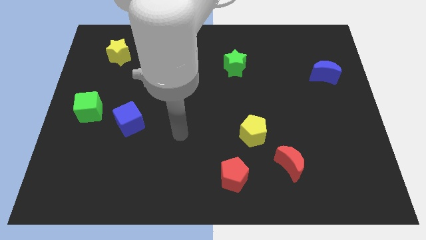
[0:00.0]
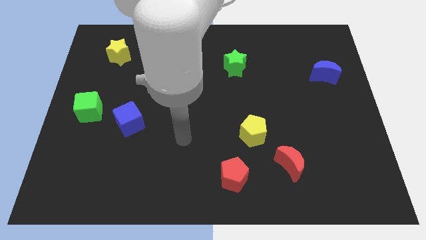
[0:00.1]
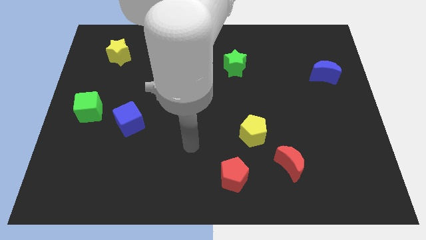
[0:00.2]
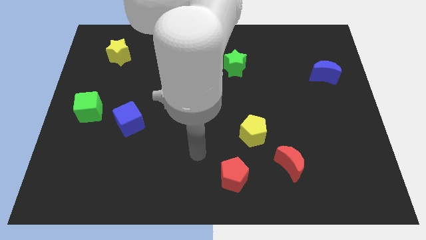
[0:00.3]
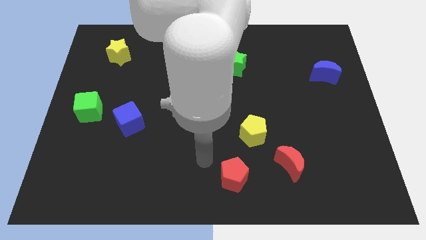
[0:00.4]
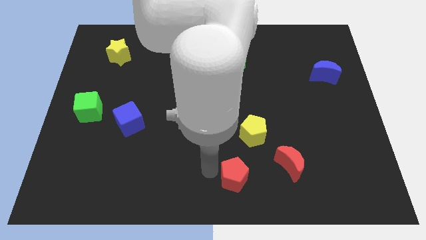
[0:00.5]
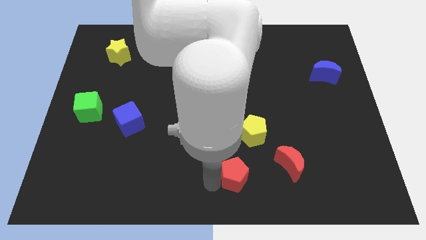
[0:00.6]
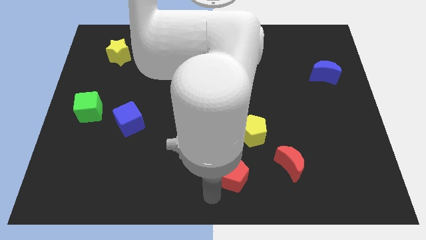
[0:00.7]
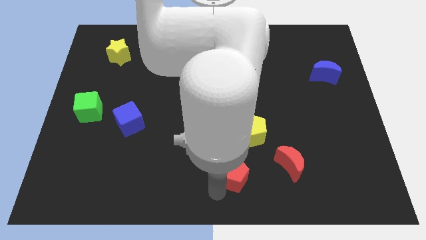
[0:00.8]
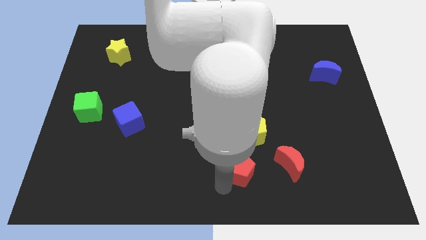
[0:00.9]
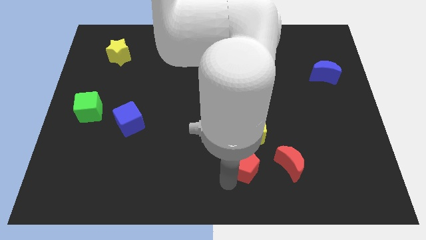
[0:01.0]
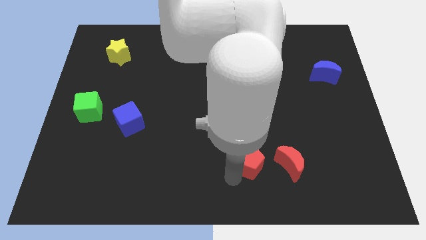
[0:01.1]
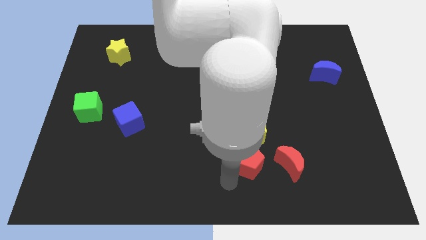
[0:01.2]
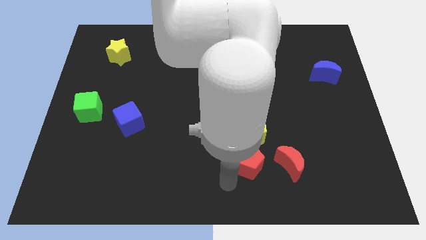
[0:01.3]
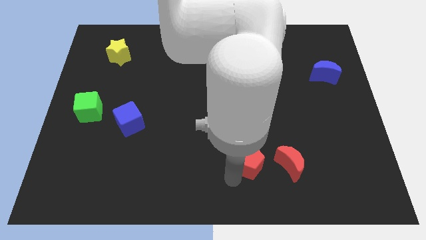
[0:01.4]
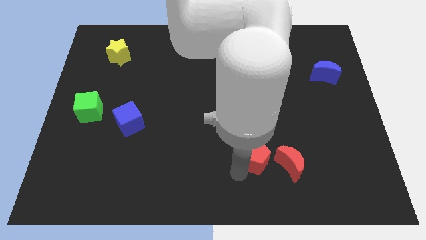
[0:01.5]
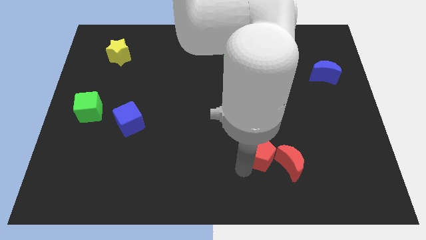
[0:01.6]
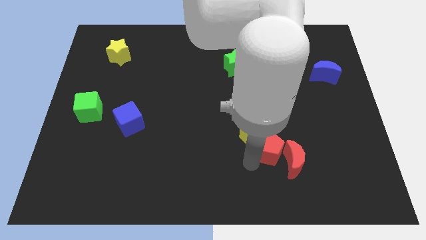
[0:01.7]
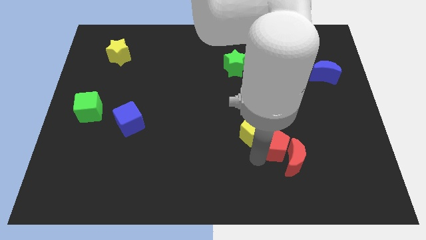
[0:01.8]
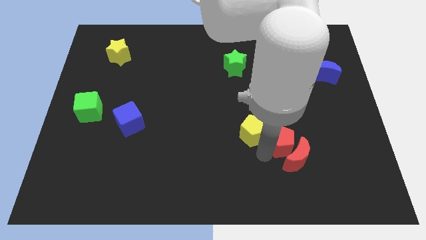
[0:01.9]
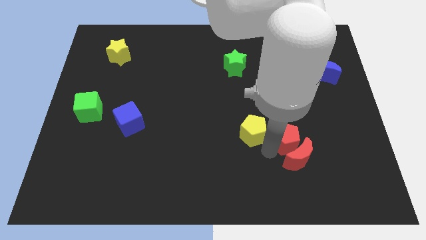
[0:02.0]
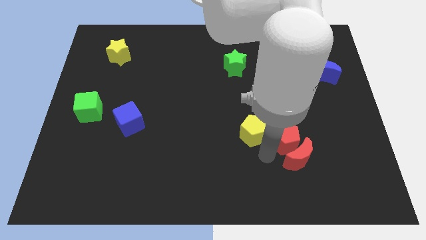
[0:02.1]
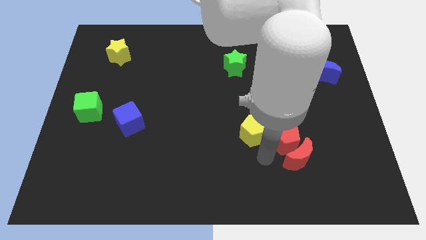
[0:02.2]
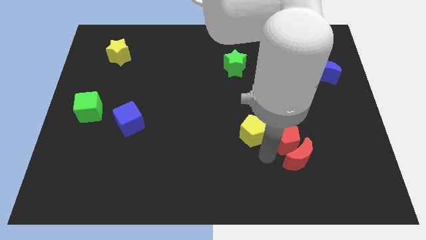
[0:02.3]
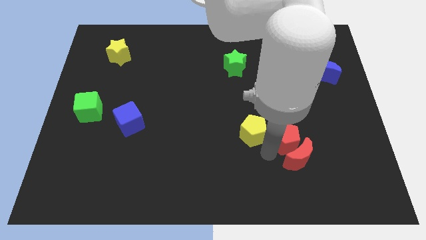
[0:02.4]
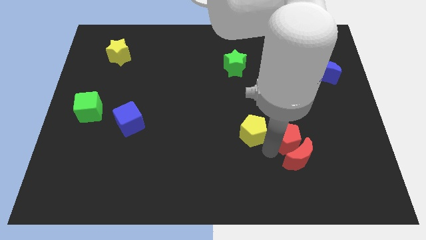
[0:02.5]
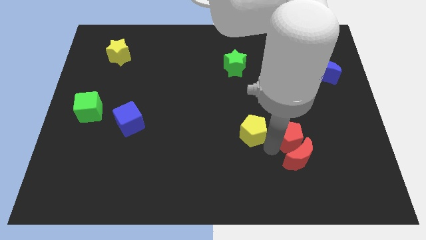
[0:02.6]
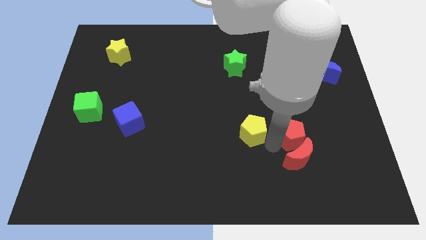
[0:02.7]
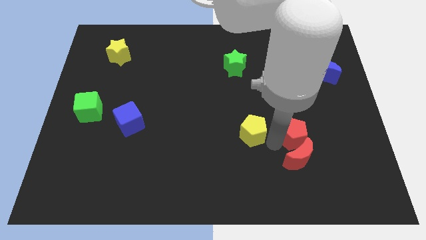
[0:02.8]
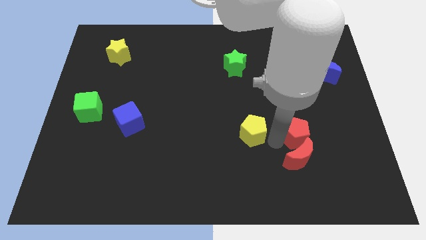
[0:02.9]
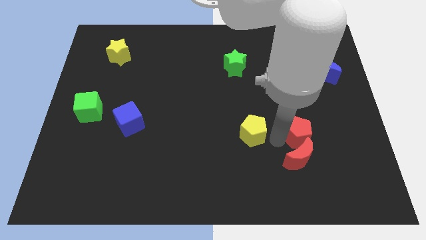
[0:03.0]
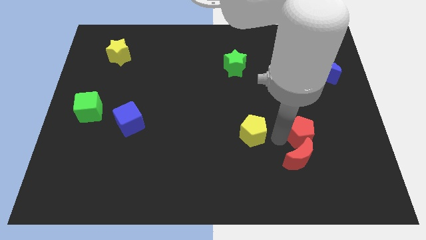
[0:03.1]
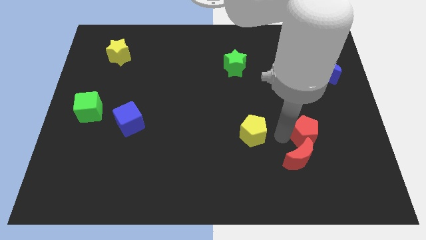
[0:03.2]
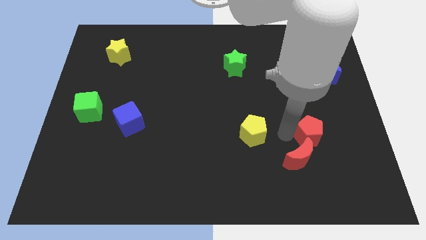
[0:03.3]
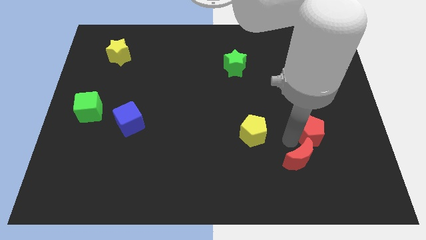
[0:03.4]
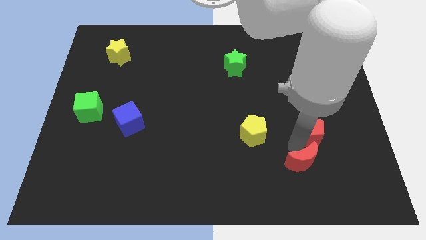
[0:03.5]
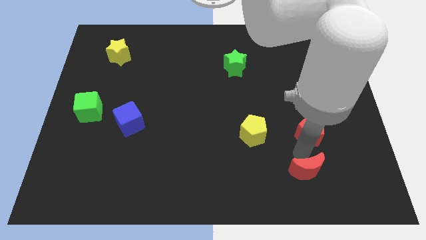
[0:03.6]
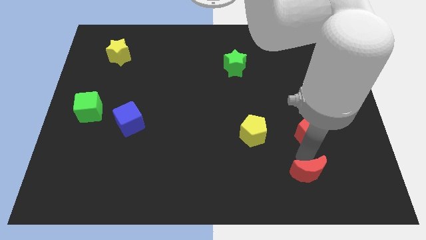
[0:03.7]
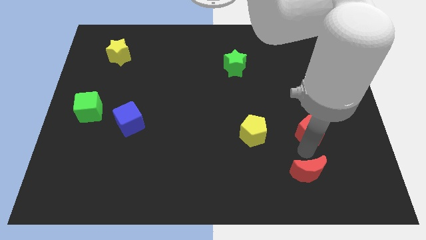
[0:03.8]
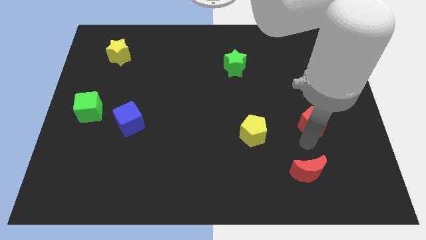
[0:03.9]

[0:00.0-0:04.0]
slide the red pentagon up and right diagonally

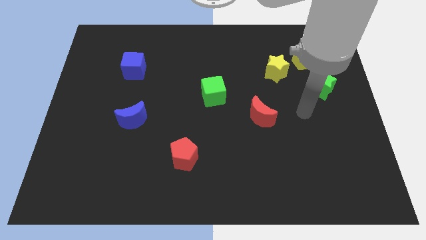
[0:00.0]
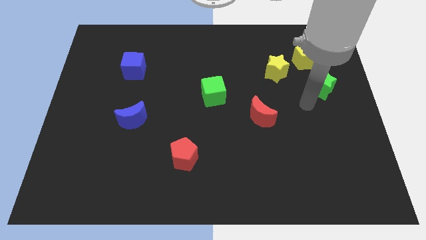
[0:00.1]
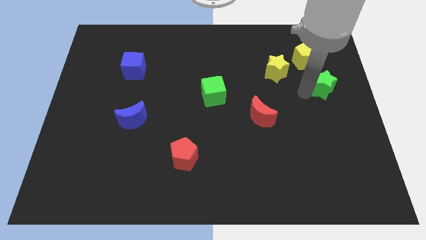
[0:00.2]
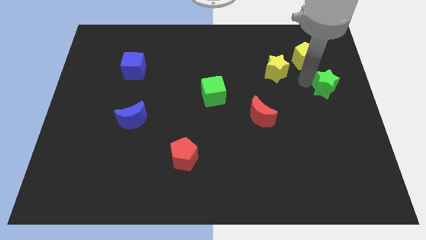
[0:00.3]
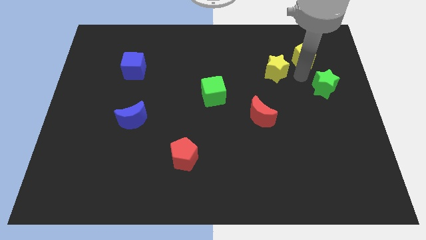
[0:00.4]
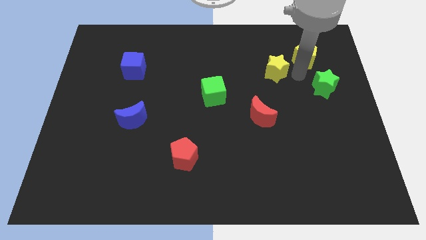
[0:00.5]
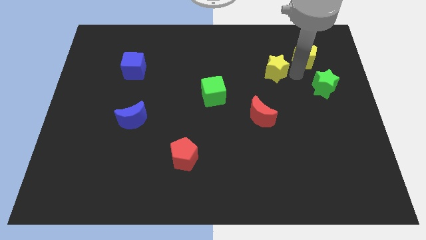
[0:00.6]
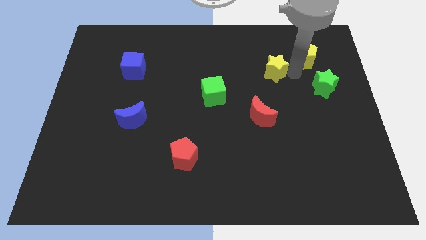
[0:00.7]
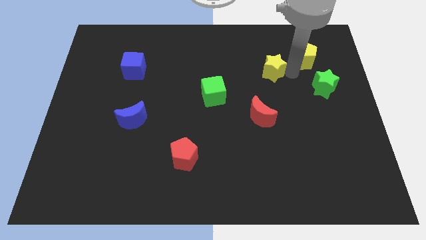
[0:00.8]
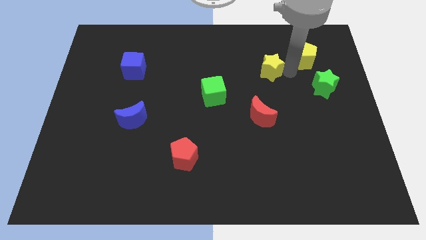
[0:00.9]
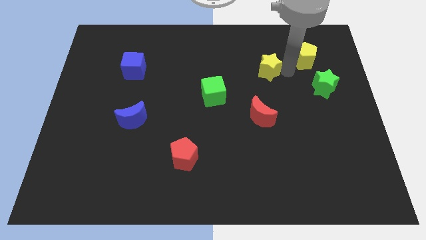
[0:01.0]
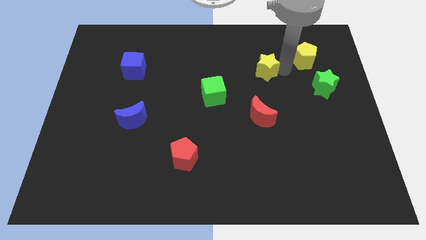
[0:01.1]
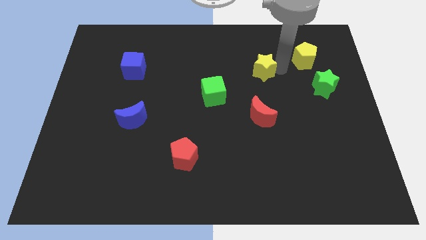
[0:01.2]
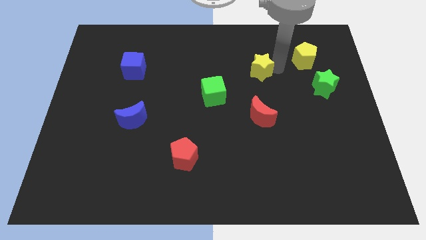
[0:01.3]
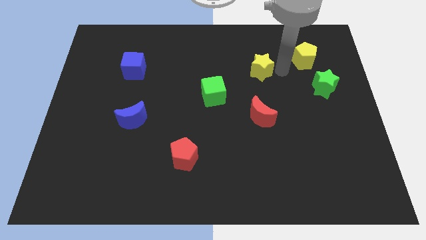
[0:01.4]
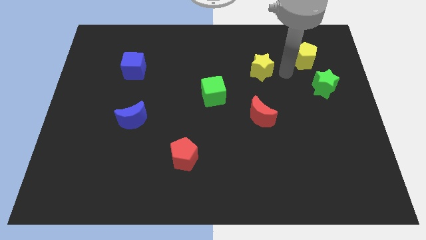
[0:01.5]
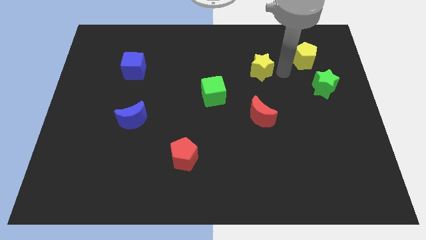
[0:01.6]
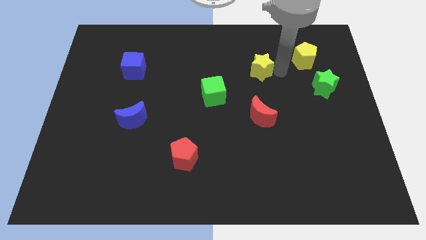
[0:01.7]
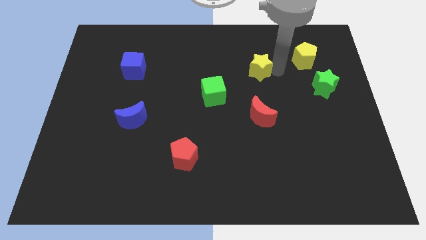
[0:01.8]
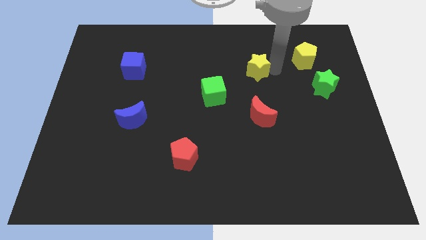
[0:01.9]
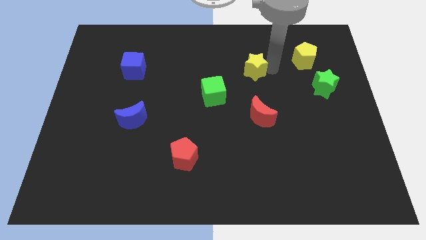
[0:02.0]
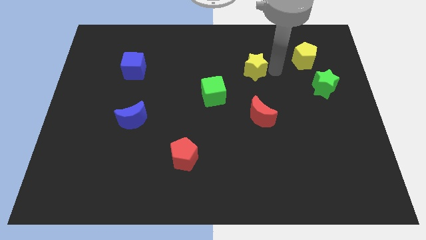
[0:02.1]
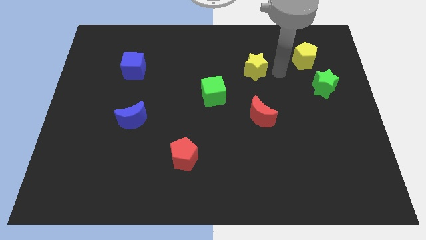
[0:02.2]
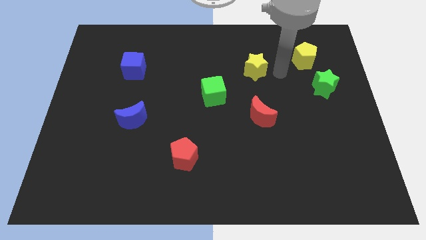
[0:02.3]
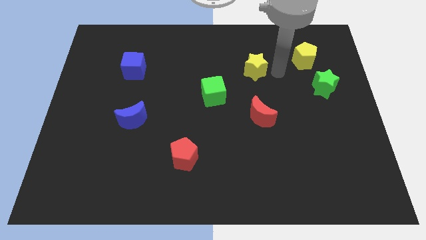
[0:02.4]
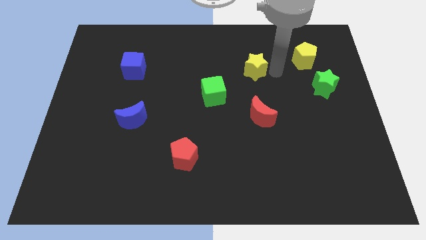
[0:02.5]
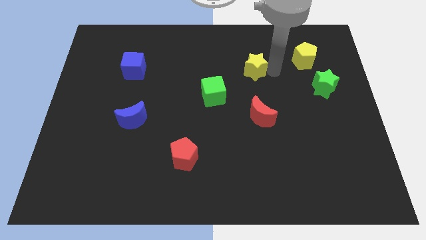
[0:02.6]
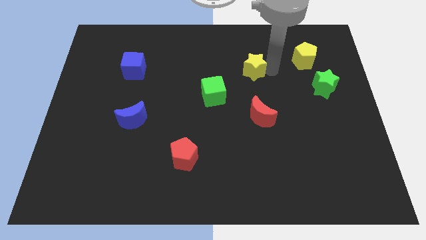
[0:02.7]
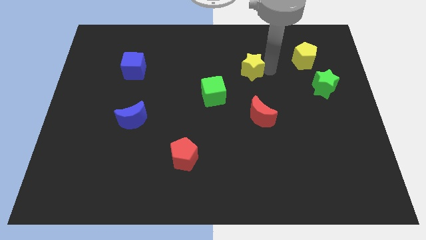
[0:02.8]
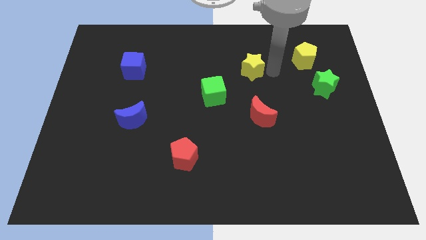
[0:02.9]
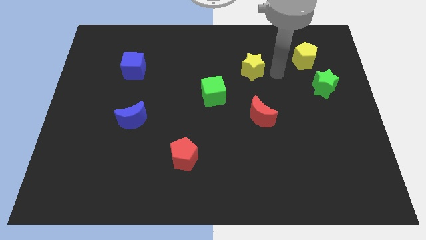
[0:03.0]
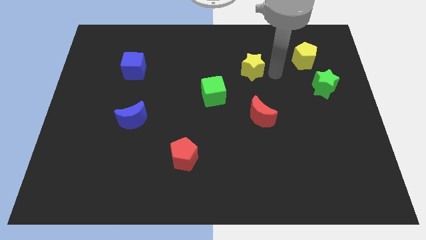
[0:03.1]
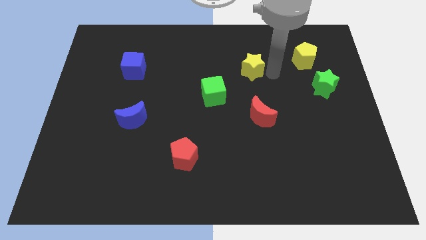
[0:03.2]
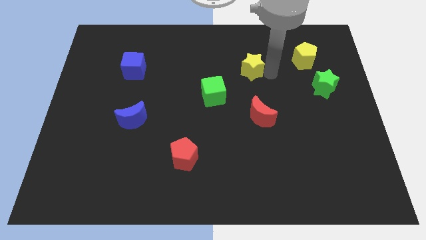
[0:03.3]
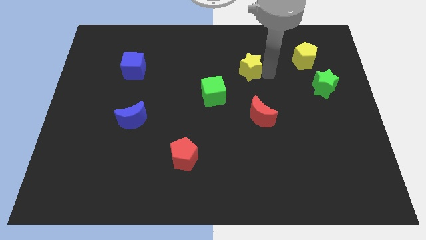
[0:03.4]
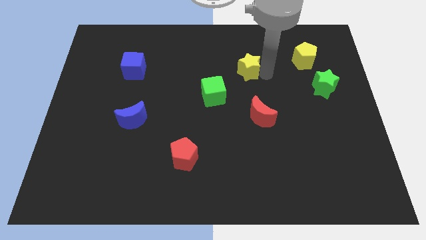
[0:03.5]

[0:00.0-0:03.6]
push the yellow star slightly to the left

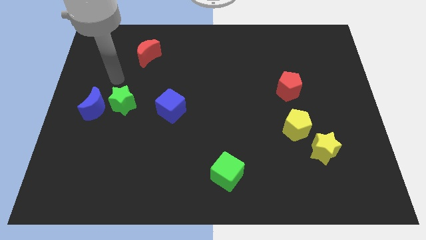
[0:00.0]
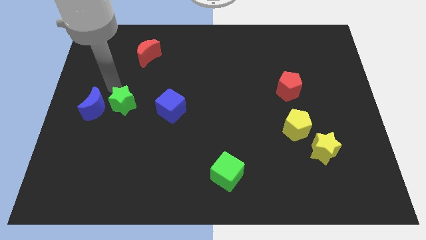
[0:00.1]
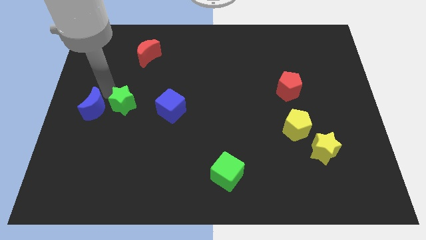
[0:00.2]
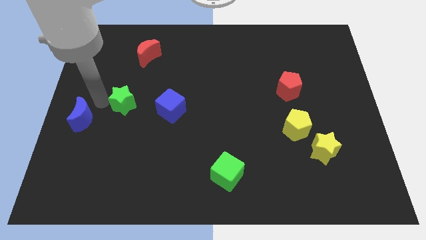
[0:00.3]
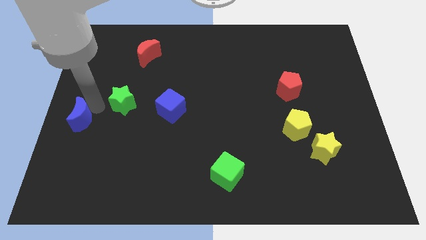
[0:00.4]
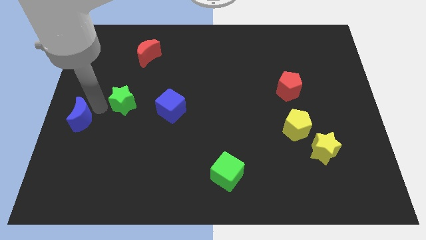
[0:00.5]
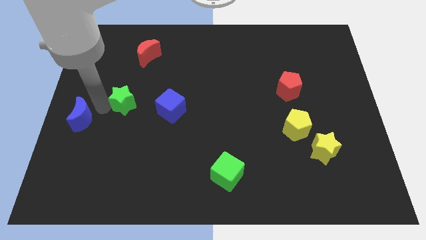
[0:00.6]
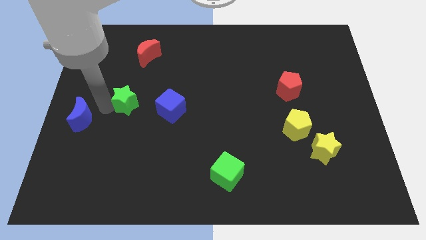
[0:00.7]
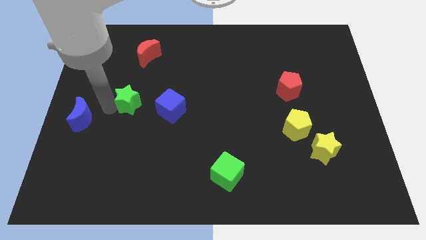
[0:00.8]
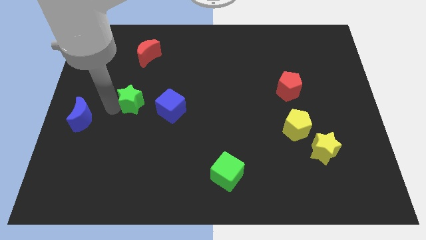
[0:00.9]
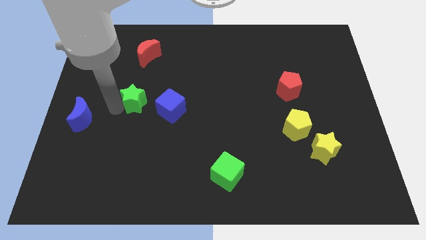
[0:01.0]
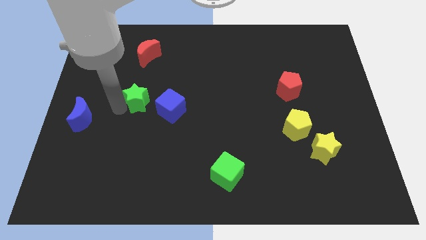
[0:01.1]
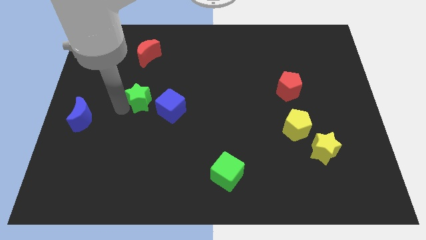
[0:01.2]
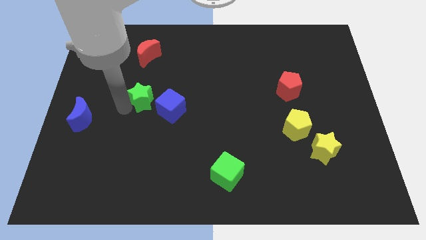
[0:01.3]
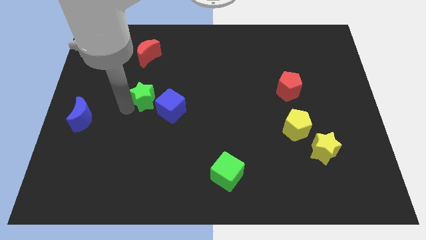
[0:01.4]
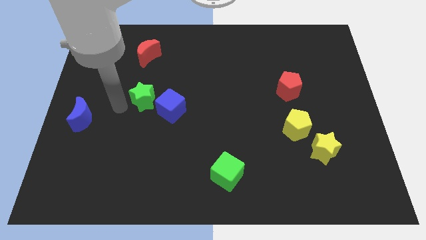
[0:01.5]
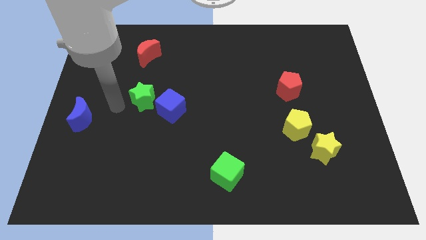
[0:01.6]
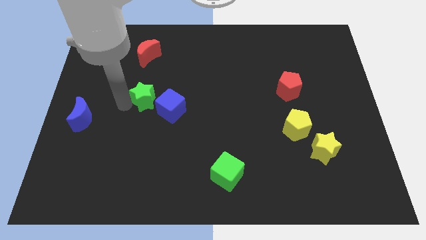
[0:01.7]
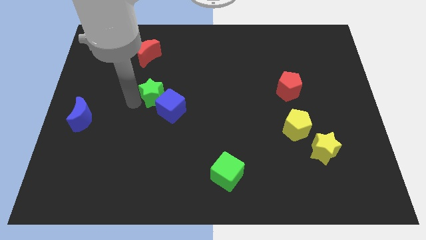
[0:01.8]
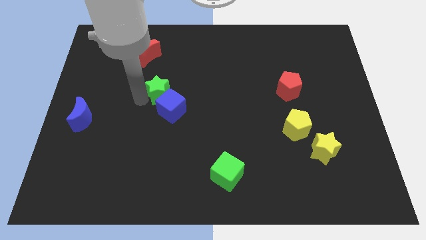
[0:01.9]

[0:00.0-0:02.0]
slide the green star to the right slightly
